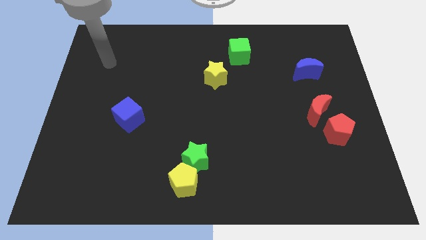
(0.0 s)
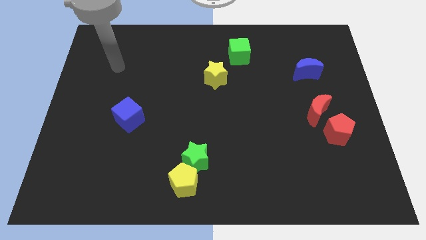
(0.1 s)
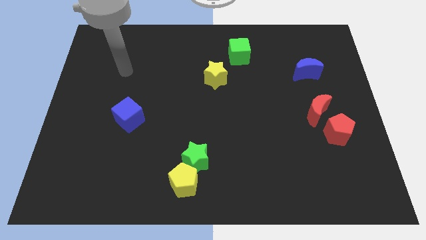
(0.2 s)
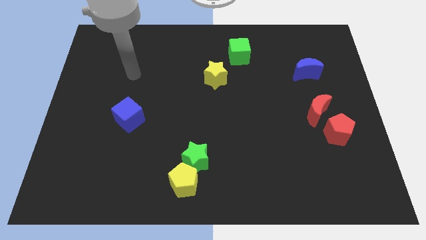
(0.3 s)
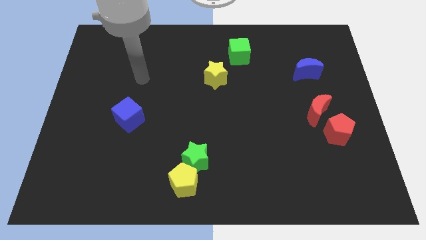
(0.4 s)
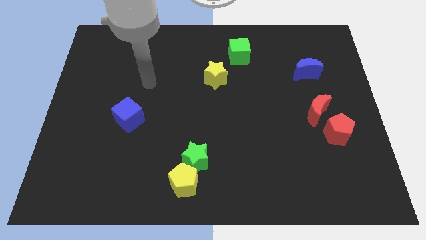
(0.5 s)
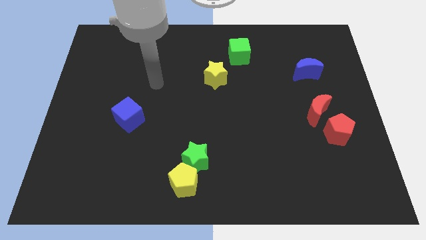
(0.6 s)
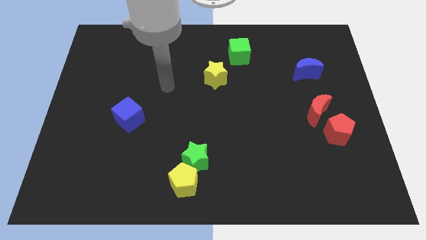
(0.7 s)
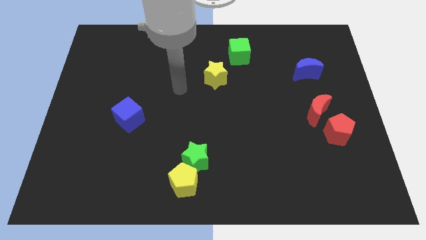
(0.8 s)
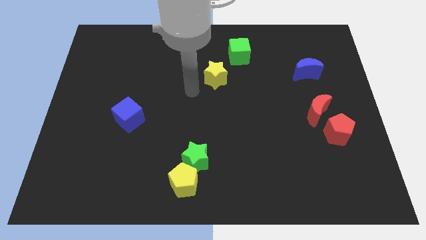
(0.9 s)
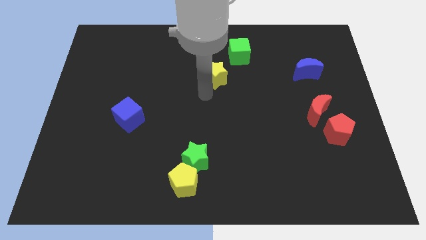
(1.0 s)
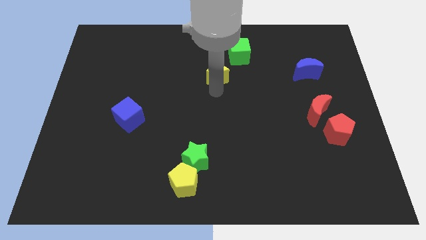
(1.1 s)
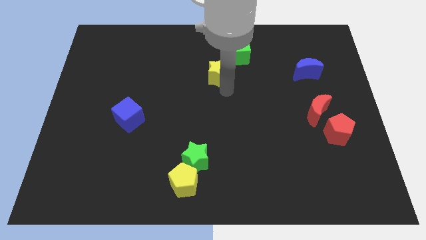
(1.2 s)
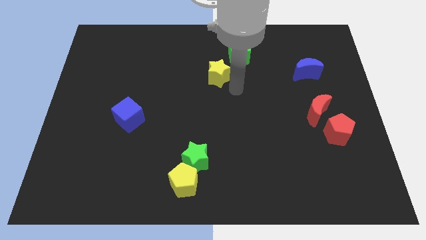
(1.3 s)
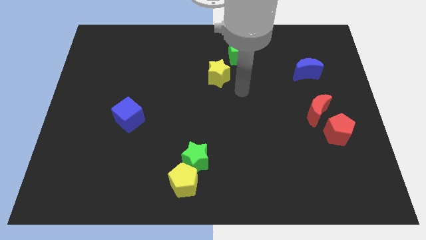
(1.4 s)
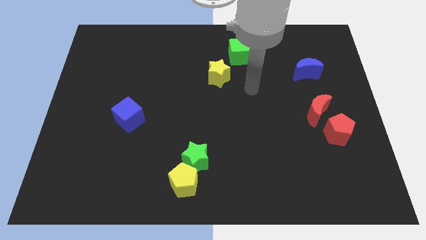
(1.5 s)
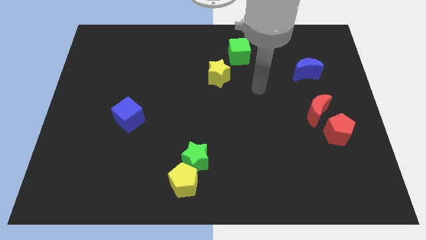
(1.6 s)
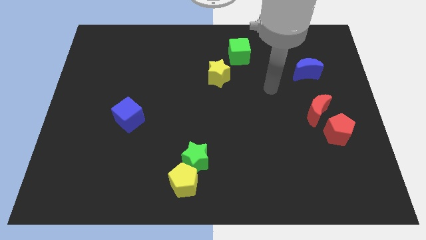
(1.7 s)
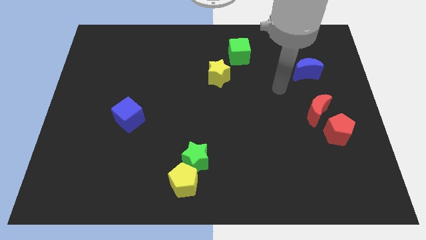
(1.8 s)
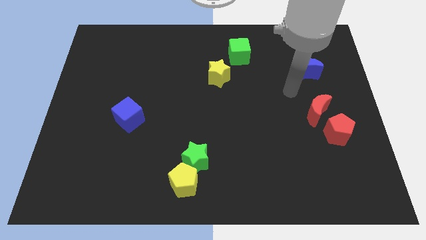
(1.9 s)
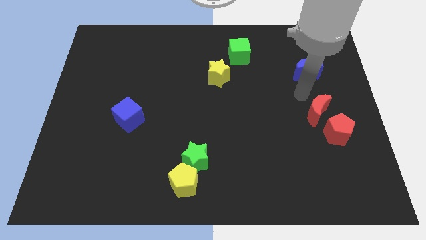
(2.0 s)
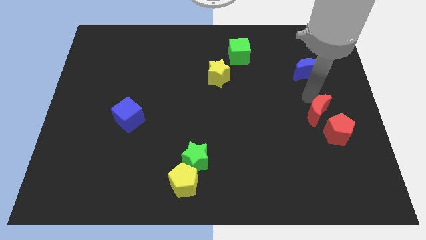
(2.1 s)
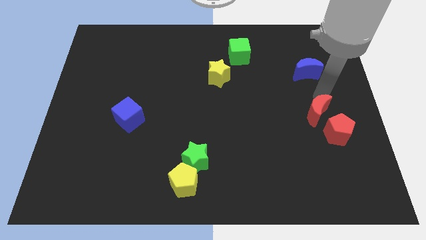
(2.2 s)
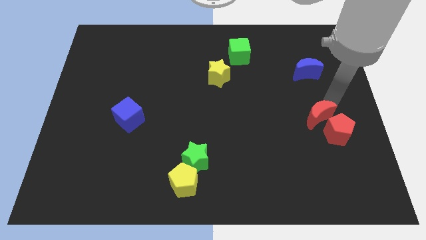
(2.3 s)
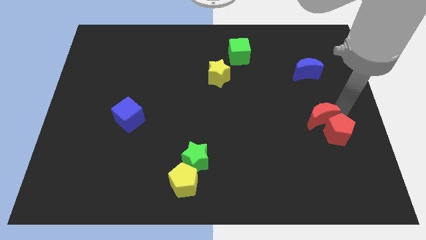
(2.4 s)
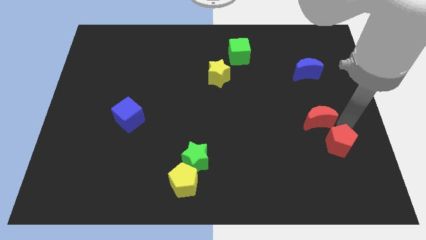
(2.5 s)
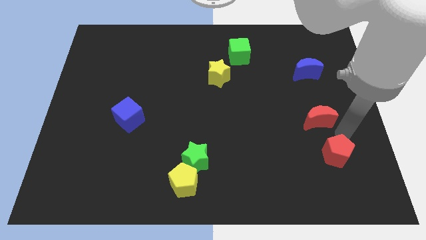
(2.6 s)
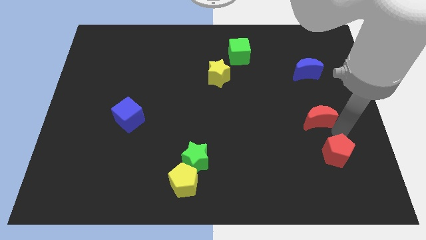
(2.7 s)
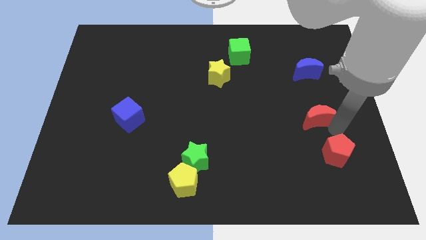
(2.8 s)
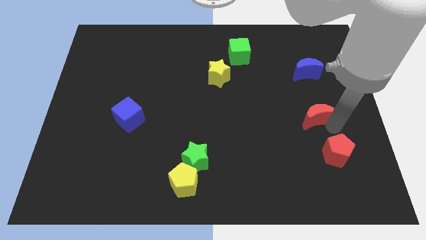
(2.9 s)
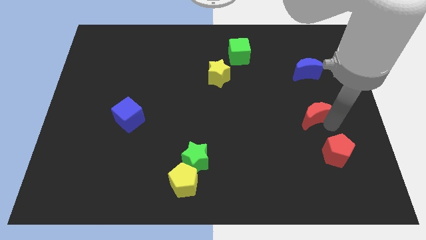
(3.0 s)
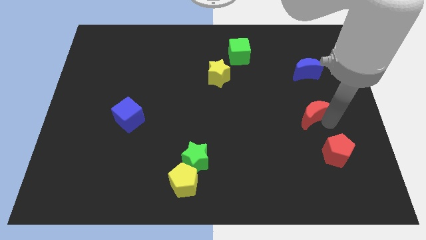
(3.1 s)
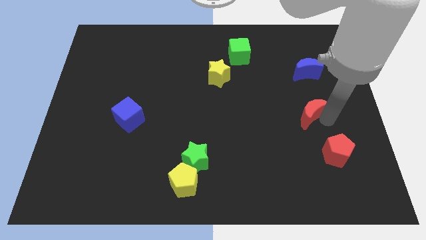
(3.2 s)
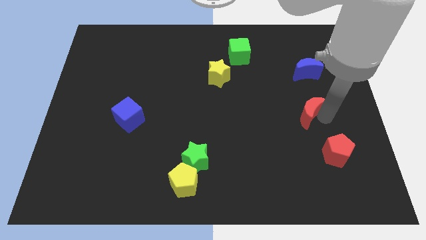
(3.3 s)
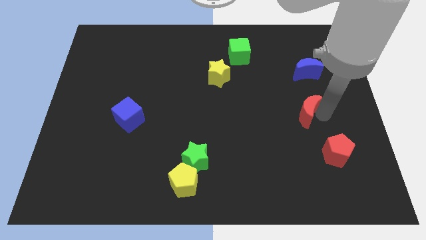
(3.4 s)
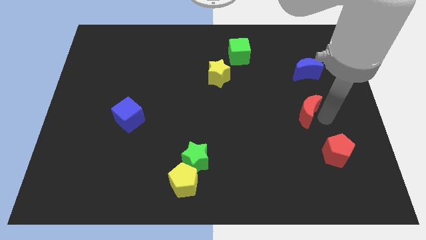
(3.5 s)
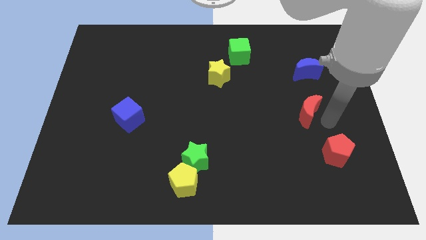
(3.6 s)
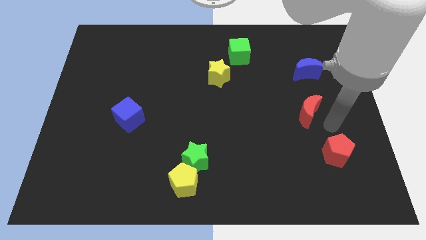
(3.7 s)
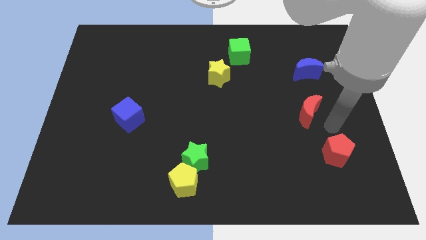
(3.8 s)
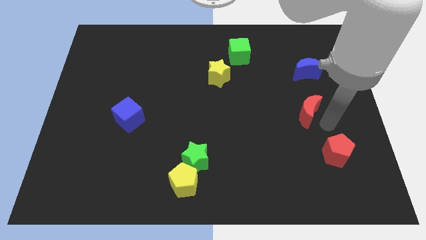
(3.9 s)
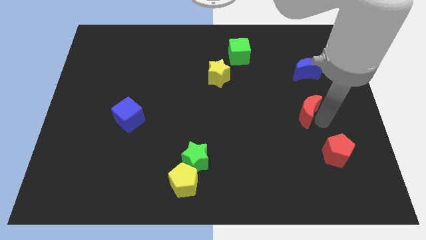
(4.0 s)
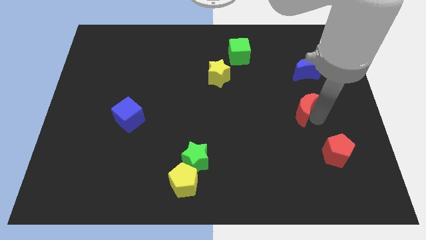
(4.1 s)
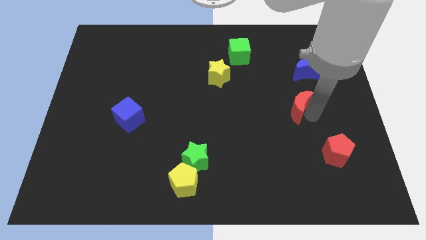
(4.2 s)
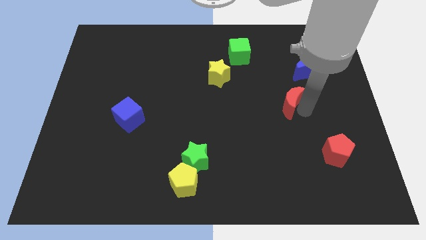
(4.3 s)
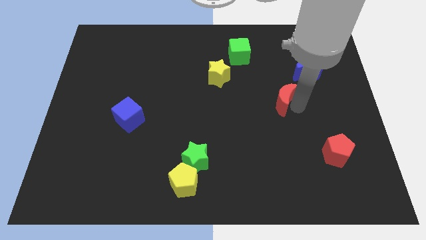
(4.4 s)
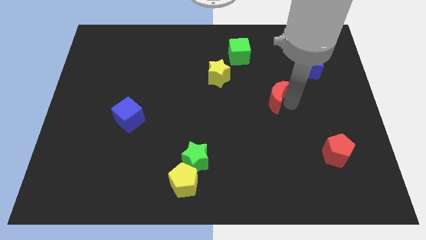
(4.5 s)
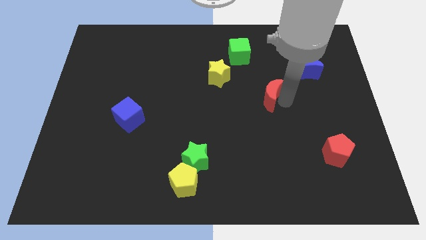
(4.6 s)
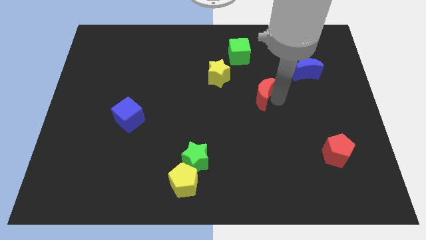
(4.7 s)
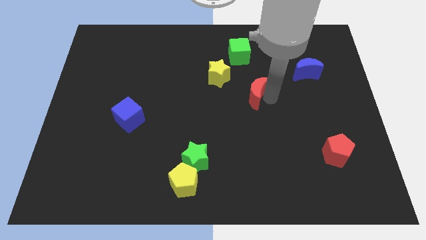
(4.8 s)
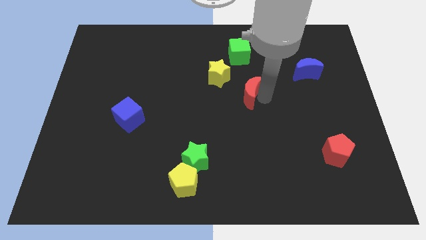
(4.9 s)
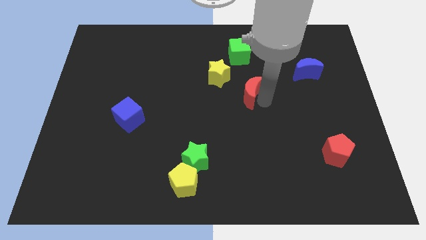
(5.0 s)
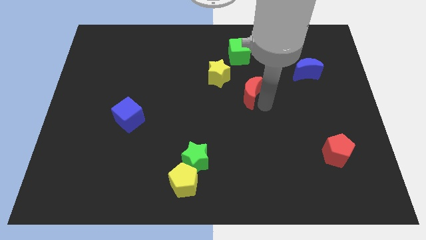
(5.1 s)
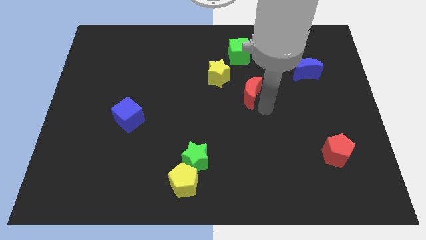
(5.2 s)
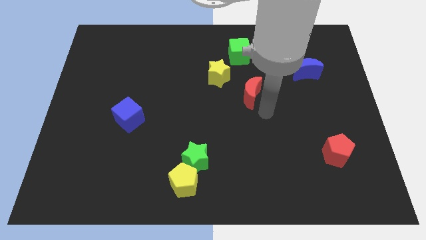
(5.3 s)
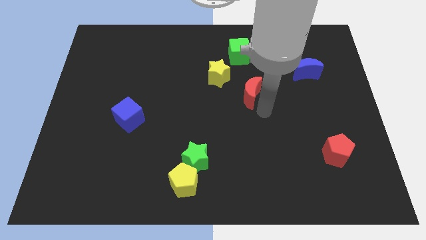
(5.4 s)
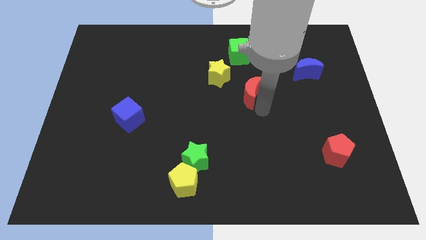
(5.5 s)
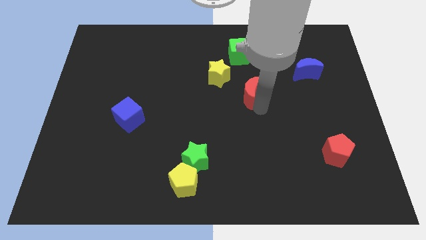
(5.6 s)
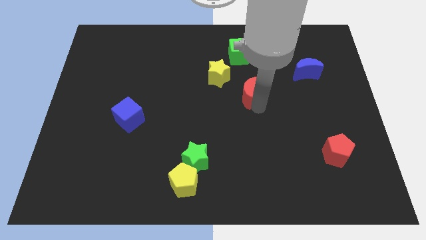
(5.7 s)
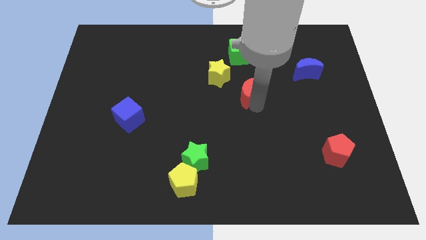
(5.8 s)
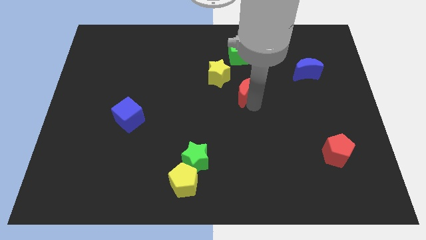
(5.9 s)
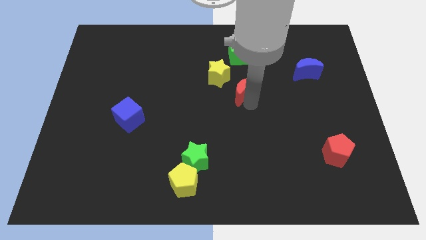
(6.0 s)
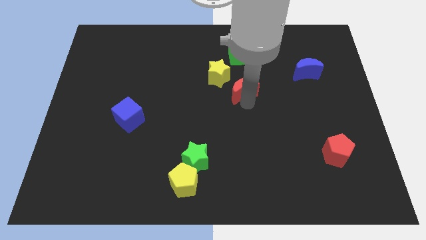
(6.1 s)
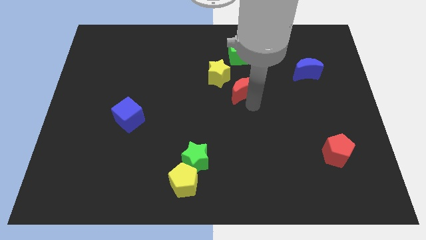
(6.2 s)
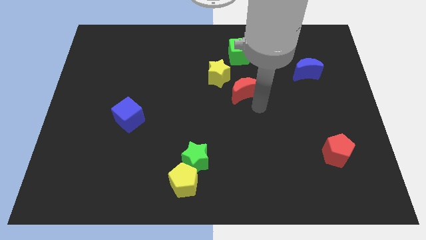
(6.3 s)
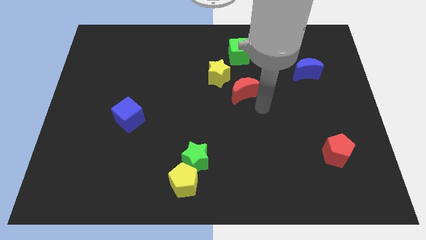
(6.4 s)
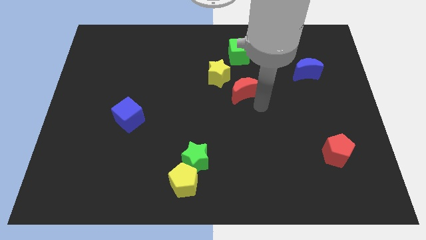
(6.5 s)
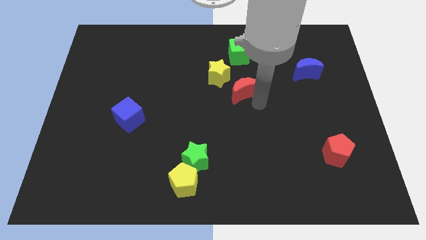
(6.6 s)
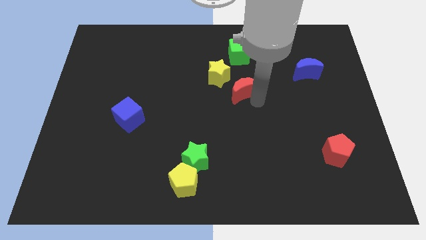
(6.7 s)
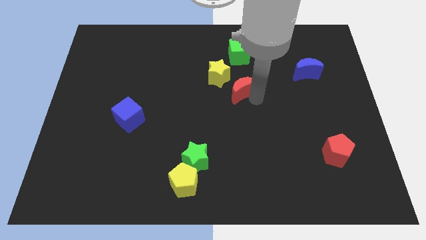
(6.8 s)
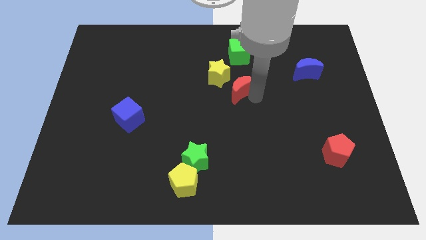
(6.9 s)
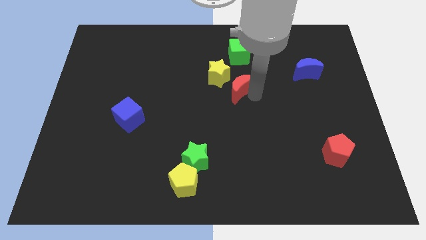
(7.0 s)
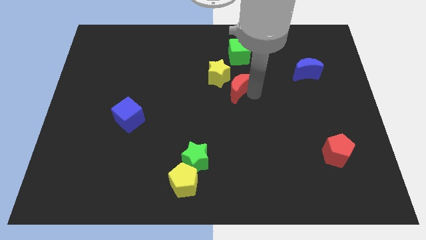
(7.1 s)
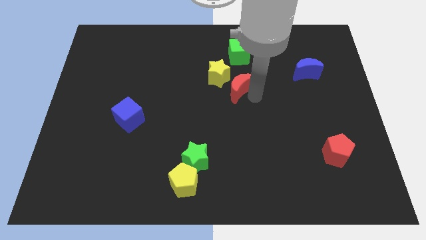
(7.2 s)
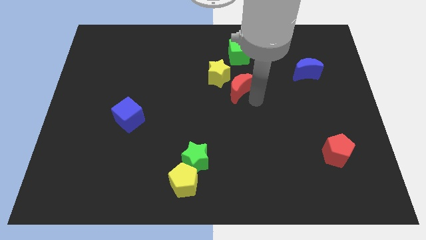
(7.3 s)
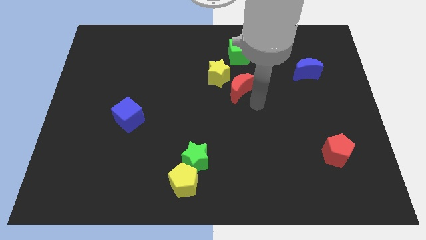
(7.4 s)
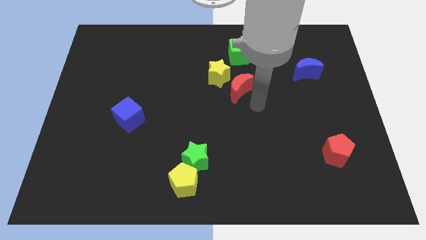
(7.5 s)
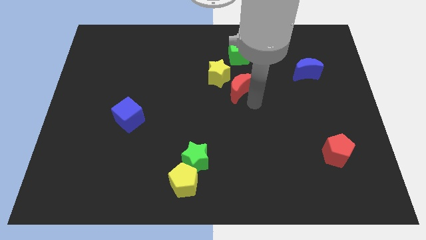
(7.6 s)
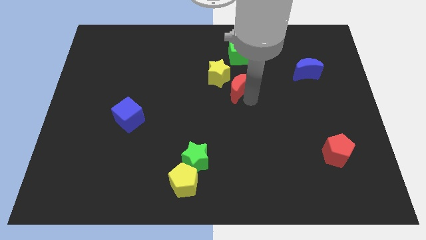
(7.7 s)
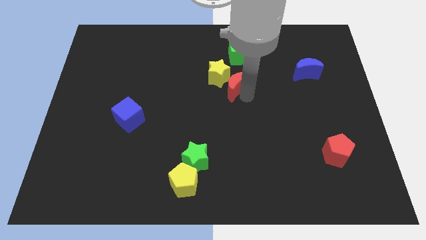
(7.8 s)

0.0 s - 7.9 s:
put the red moon close to the yellow star

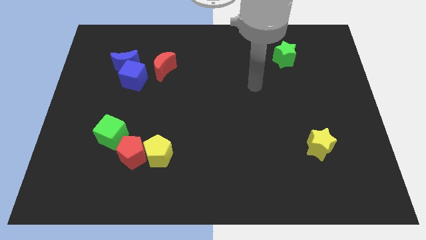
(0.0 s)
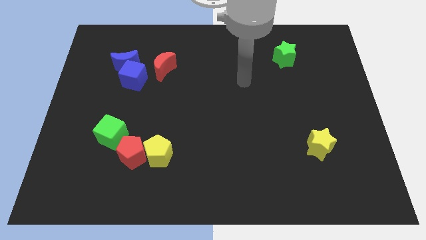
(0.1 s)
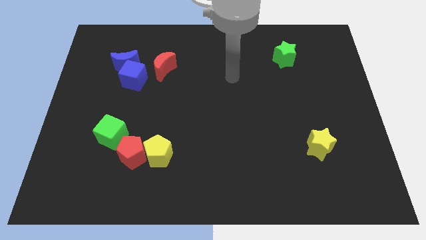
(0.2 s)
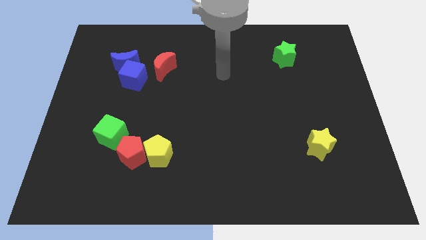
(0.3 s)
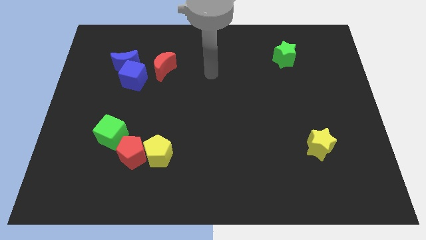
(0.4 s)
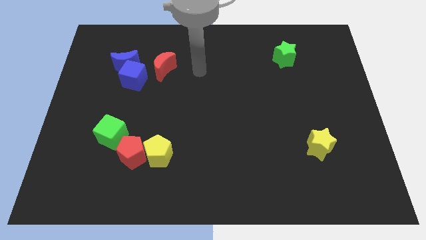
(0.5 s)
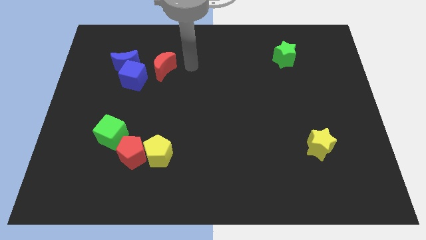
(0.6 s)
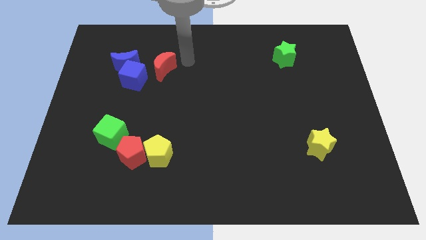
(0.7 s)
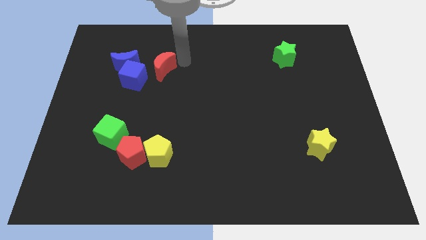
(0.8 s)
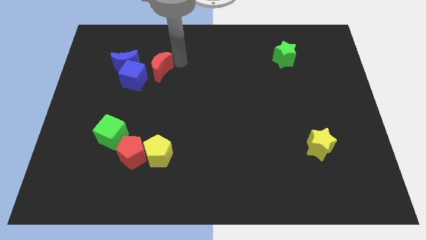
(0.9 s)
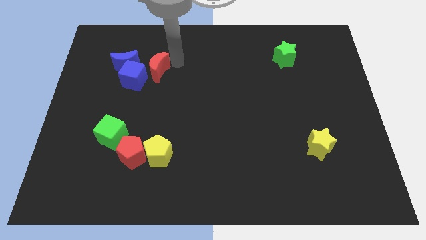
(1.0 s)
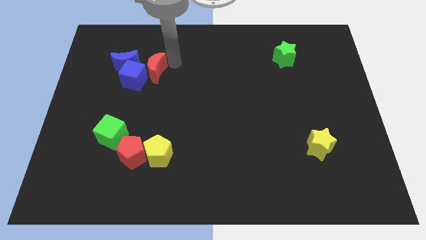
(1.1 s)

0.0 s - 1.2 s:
move the red moon close to the blue cube
